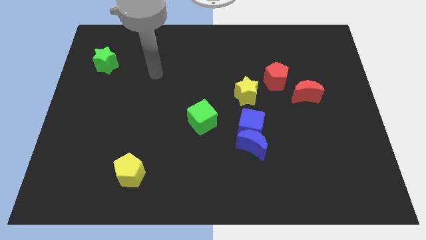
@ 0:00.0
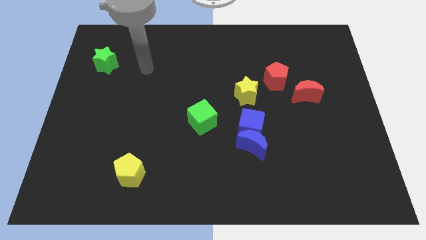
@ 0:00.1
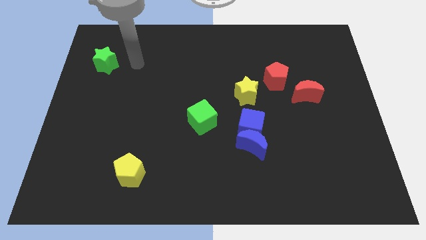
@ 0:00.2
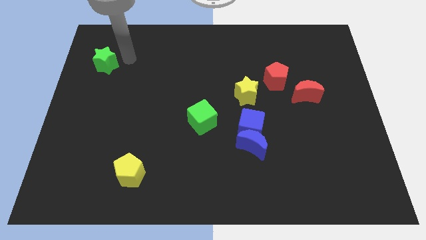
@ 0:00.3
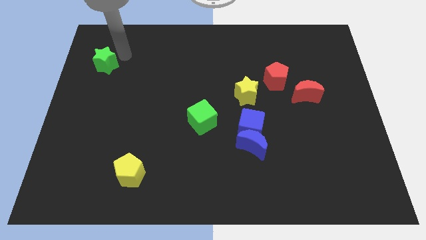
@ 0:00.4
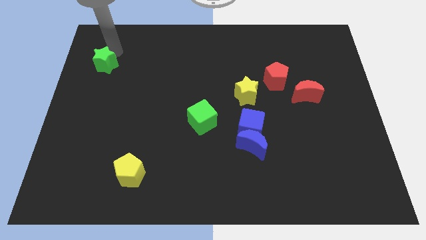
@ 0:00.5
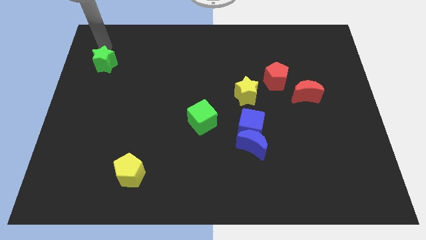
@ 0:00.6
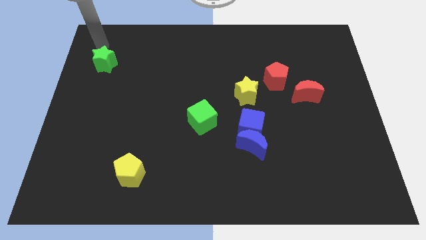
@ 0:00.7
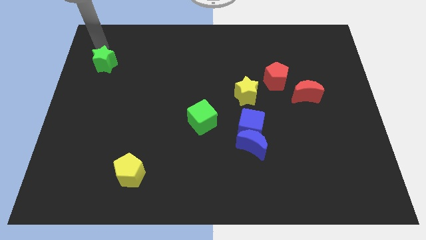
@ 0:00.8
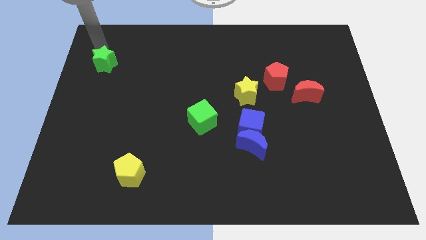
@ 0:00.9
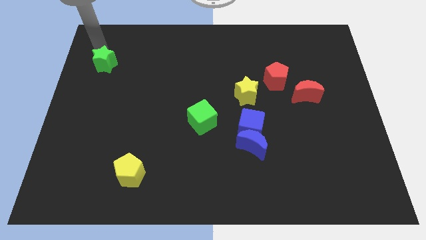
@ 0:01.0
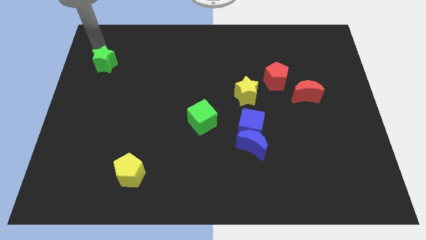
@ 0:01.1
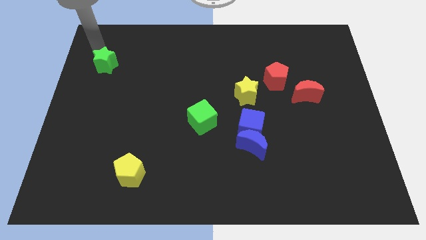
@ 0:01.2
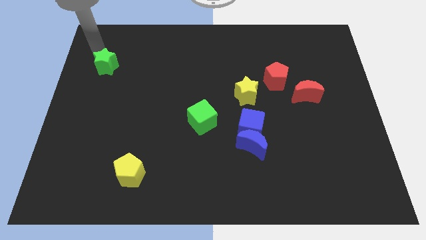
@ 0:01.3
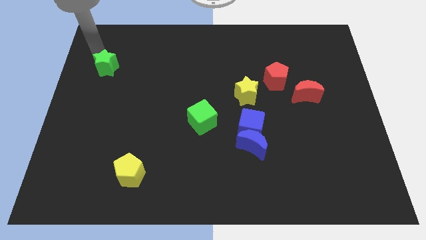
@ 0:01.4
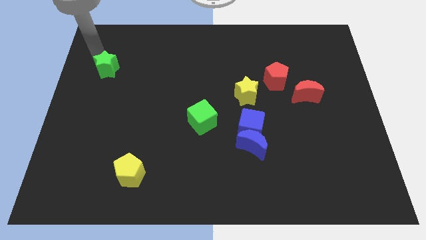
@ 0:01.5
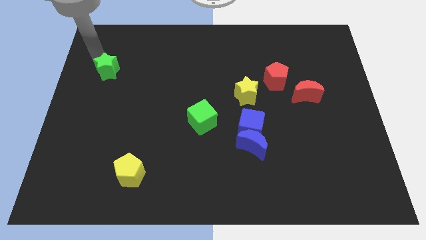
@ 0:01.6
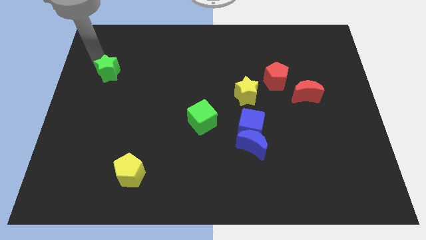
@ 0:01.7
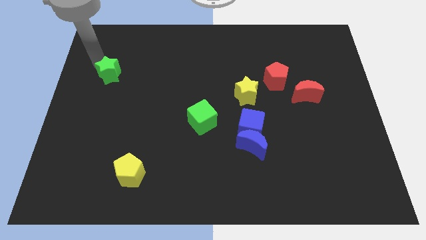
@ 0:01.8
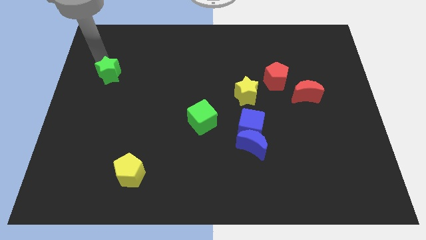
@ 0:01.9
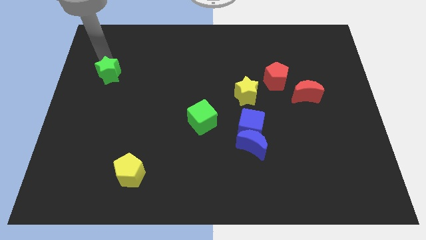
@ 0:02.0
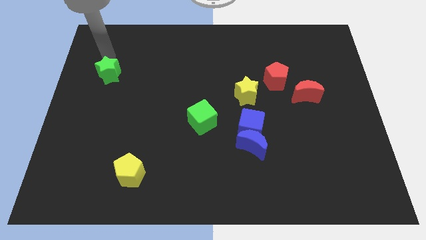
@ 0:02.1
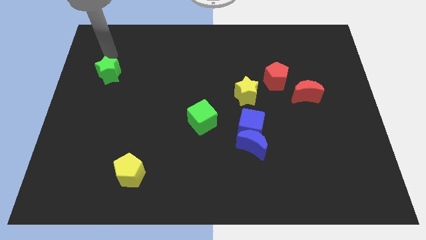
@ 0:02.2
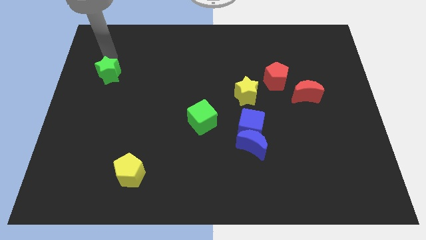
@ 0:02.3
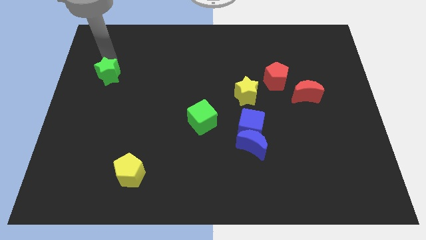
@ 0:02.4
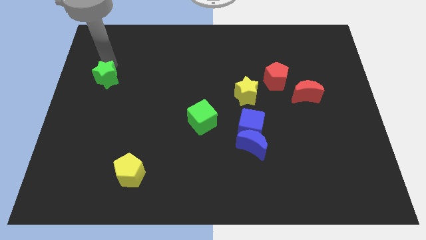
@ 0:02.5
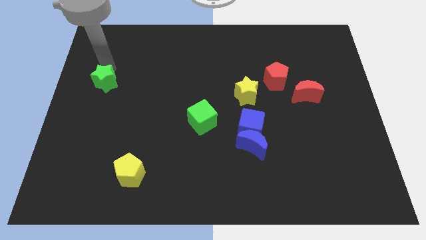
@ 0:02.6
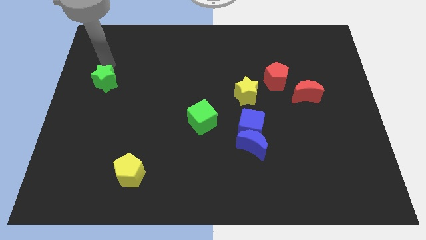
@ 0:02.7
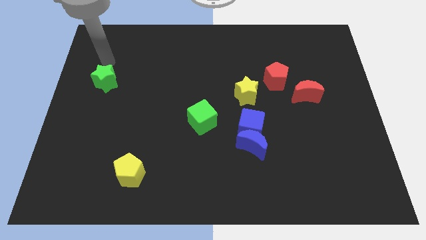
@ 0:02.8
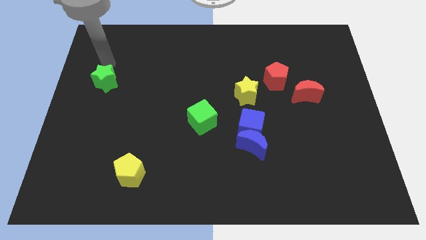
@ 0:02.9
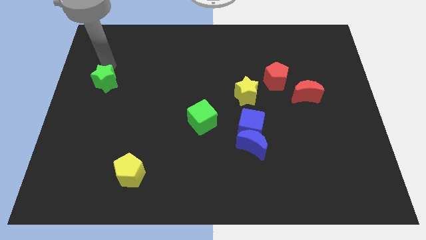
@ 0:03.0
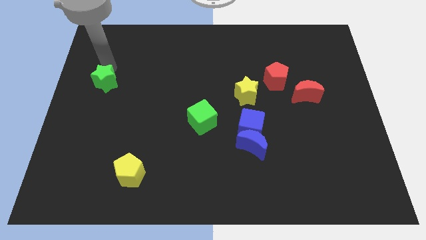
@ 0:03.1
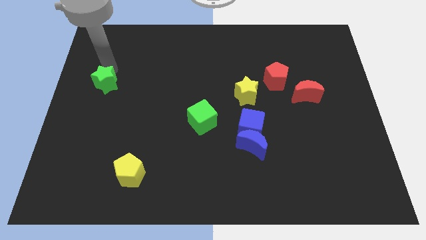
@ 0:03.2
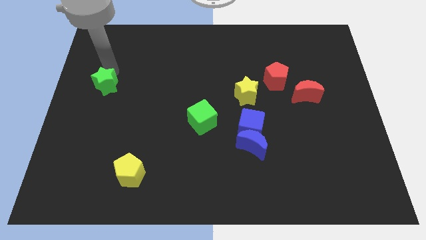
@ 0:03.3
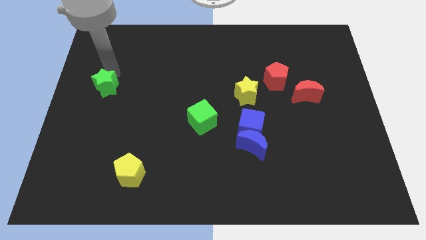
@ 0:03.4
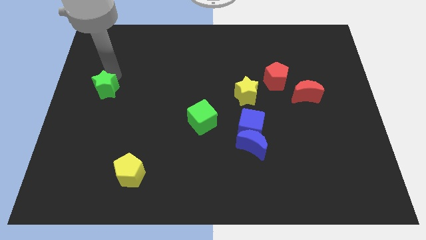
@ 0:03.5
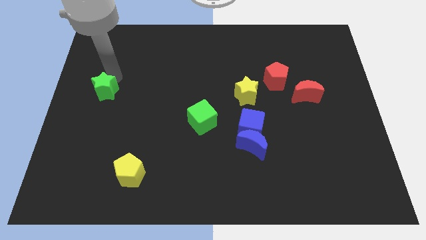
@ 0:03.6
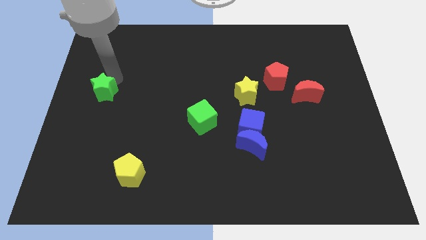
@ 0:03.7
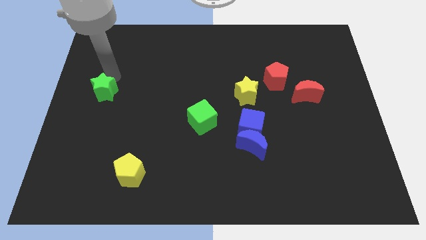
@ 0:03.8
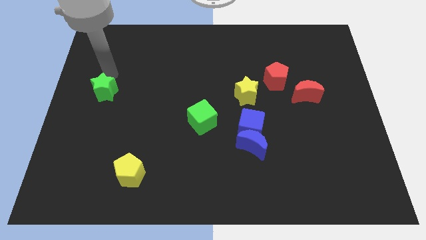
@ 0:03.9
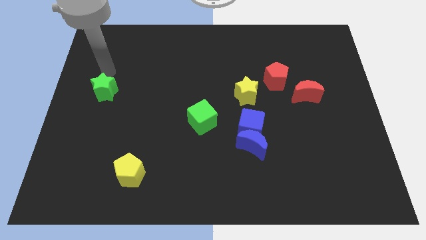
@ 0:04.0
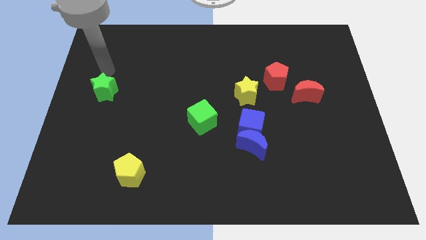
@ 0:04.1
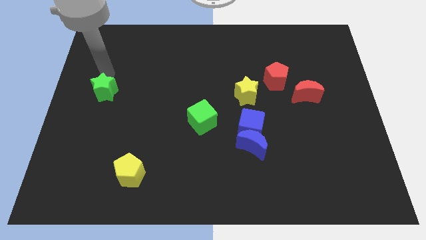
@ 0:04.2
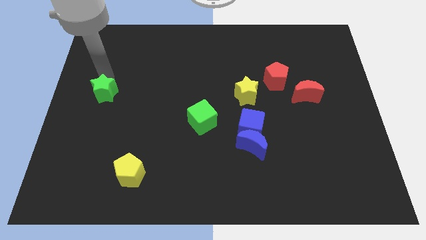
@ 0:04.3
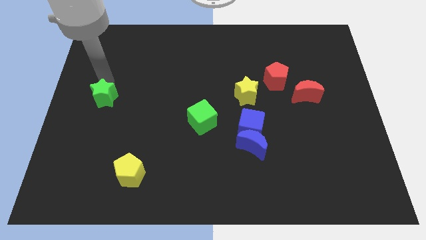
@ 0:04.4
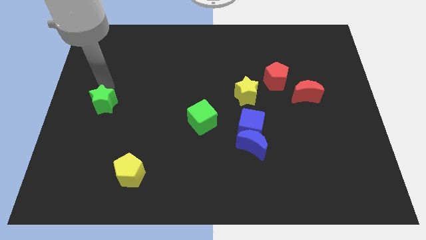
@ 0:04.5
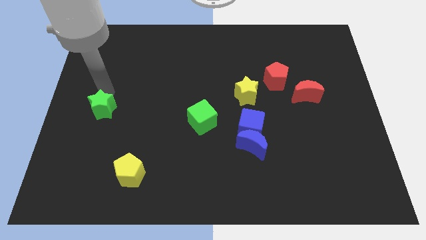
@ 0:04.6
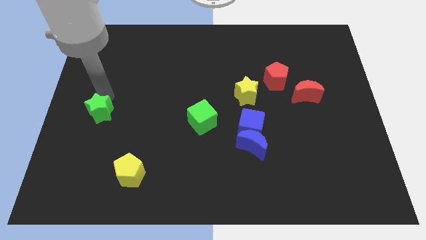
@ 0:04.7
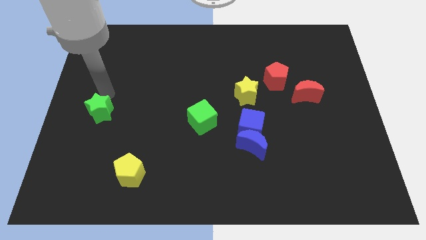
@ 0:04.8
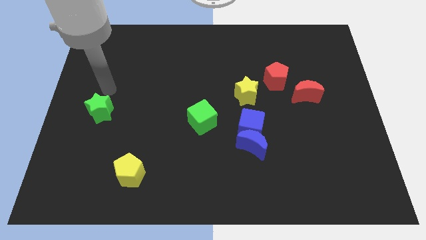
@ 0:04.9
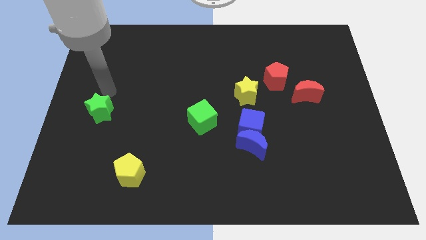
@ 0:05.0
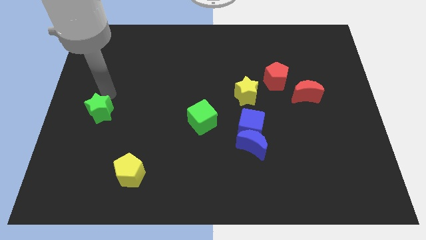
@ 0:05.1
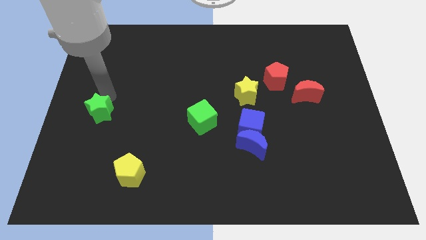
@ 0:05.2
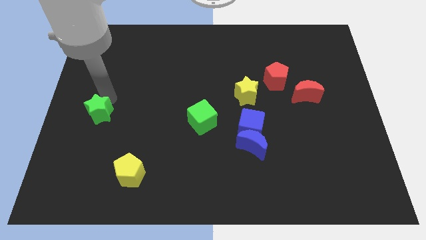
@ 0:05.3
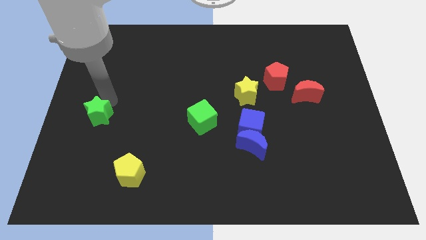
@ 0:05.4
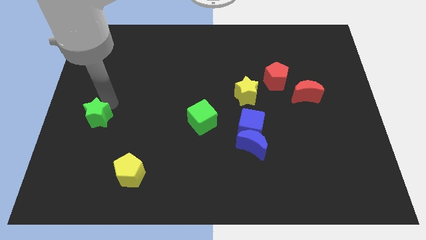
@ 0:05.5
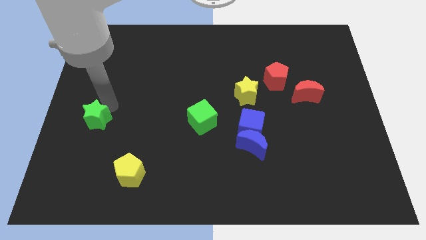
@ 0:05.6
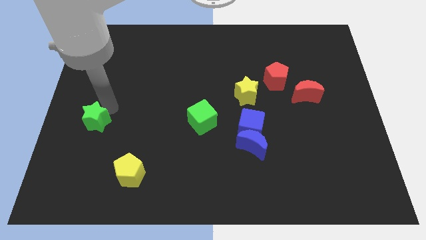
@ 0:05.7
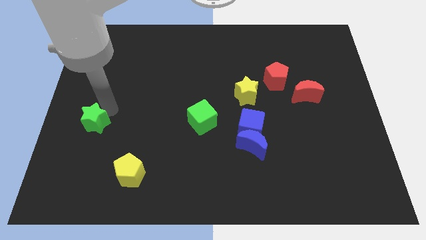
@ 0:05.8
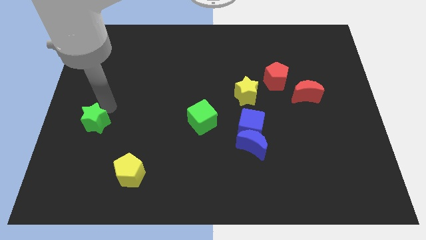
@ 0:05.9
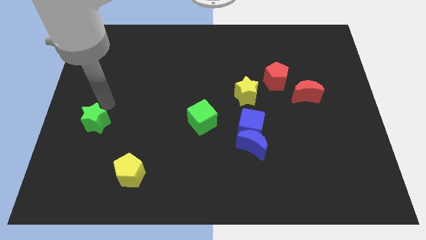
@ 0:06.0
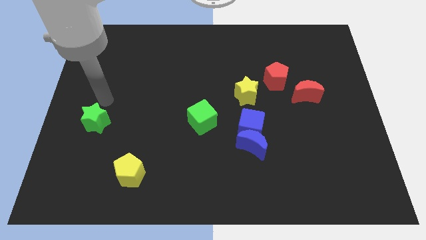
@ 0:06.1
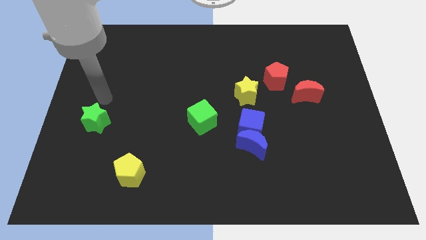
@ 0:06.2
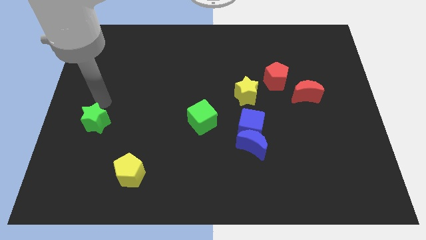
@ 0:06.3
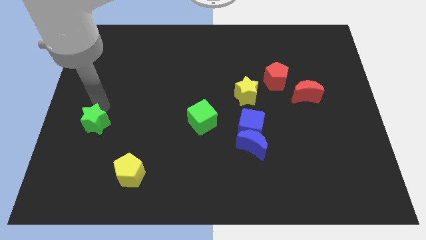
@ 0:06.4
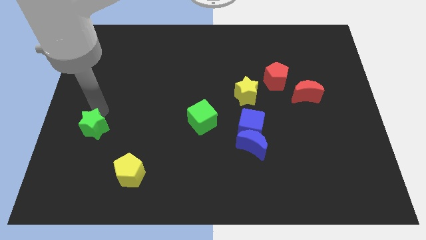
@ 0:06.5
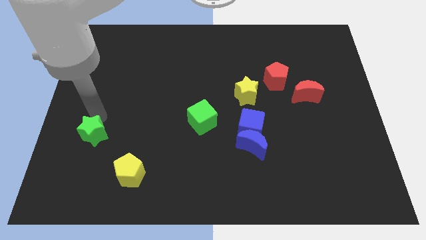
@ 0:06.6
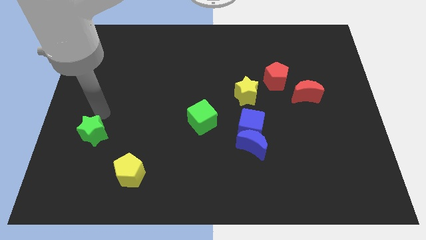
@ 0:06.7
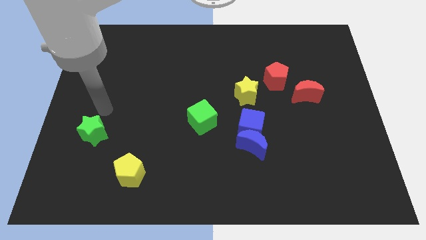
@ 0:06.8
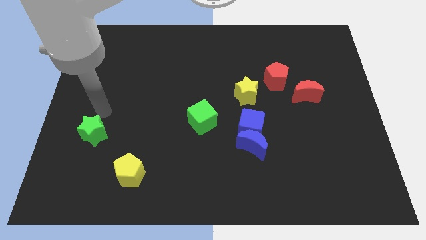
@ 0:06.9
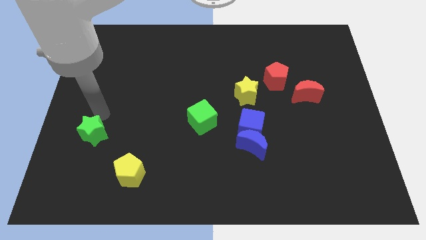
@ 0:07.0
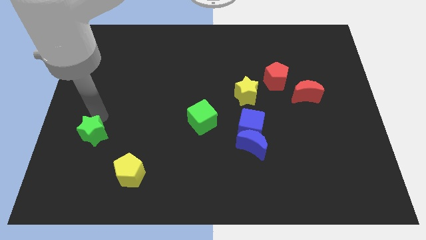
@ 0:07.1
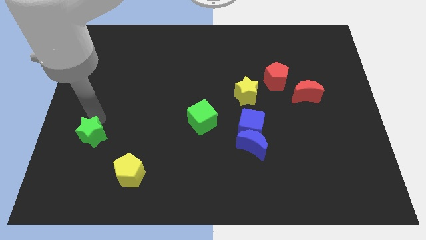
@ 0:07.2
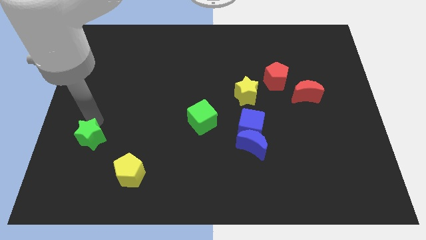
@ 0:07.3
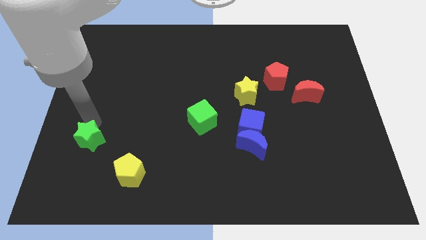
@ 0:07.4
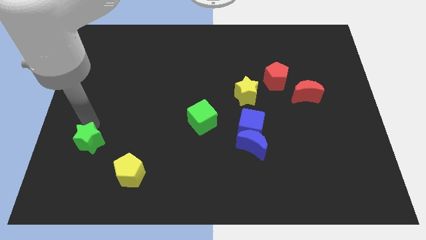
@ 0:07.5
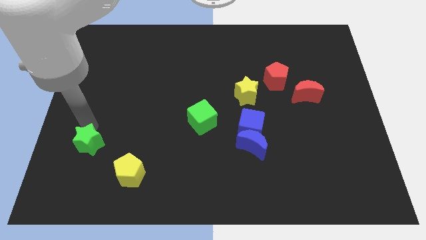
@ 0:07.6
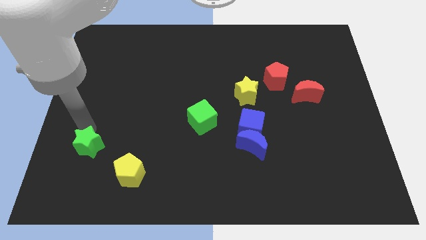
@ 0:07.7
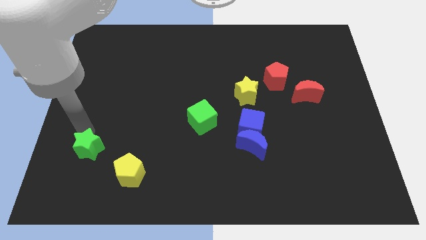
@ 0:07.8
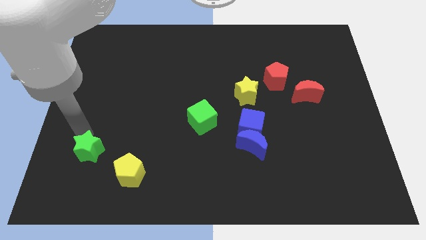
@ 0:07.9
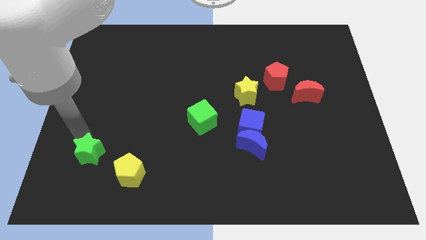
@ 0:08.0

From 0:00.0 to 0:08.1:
put the green star left of the yellow pentagon
